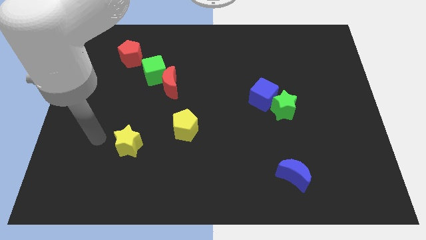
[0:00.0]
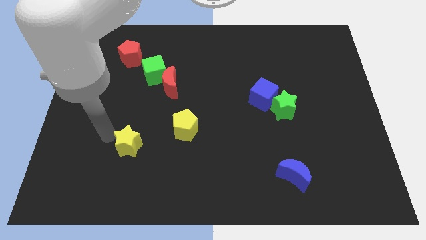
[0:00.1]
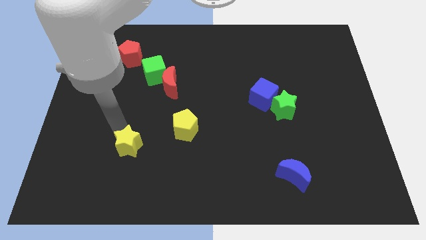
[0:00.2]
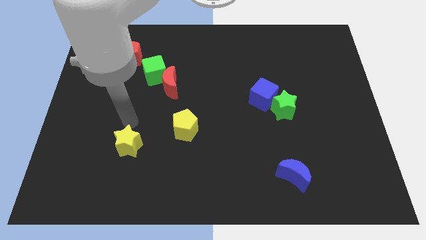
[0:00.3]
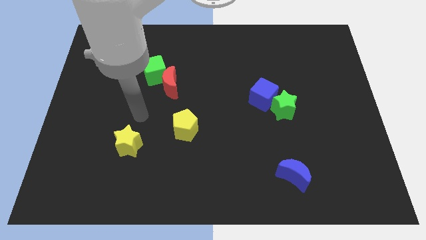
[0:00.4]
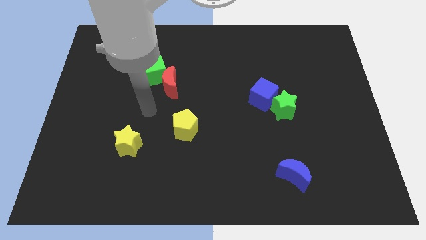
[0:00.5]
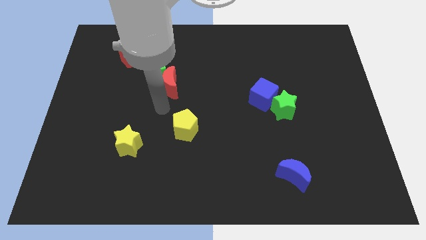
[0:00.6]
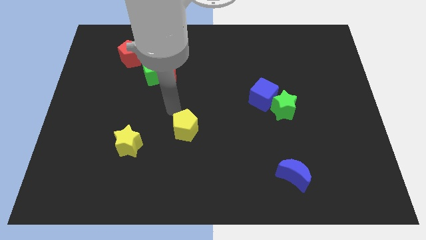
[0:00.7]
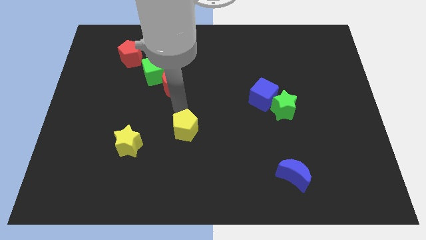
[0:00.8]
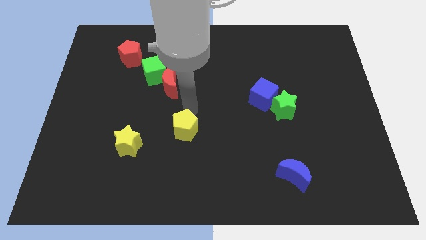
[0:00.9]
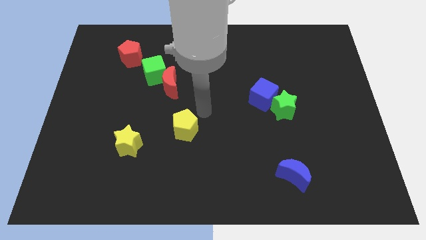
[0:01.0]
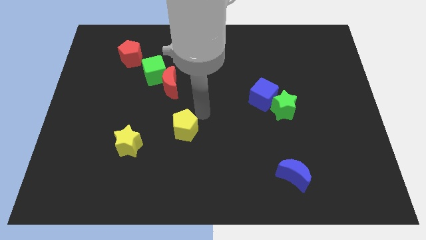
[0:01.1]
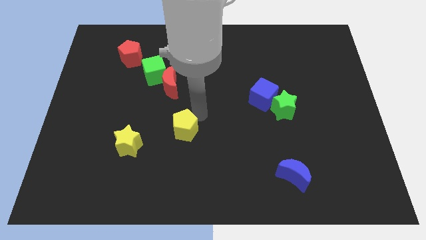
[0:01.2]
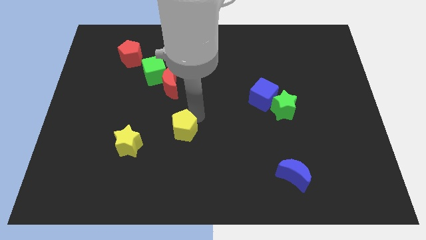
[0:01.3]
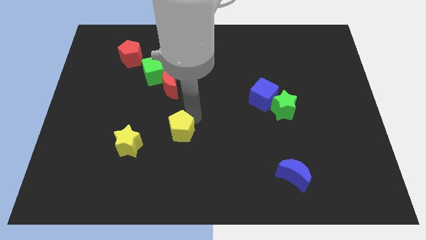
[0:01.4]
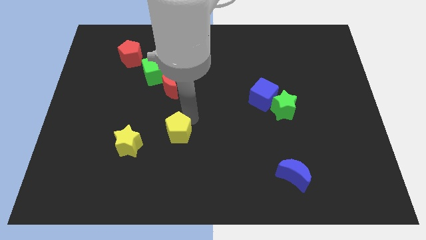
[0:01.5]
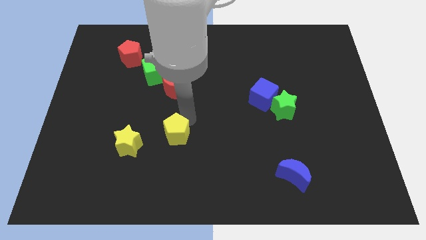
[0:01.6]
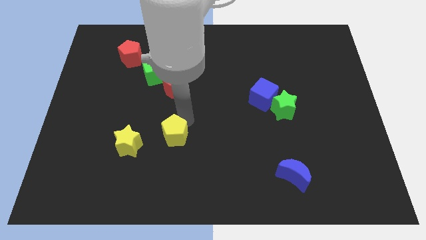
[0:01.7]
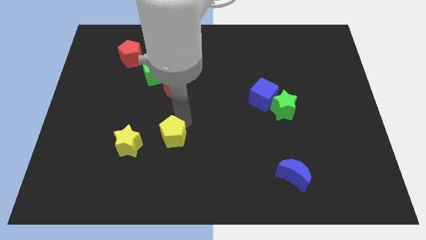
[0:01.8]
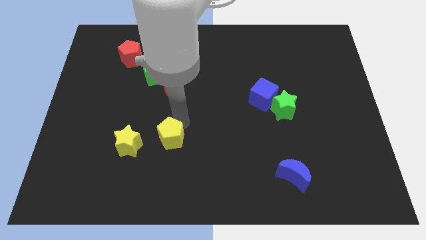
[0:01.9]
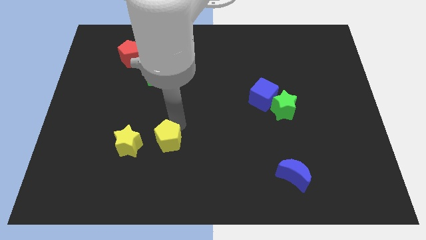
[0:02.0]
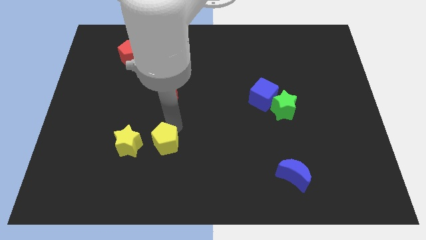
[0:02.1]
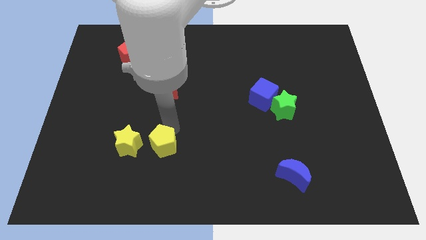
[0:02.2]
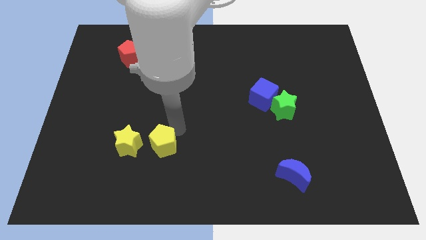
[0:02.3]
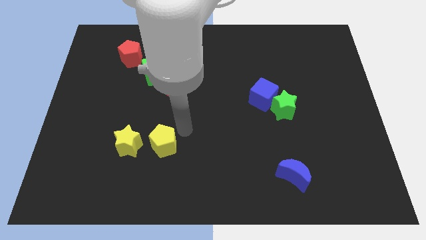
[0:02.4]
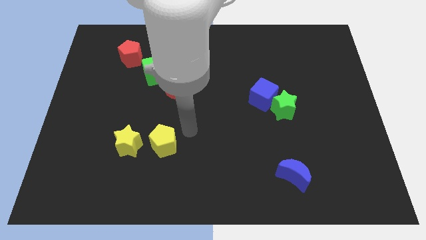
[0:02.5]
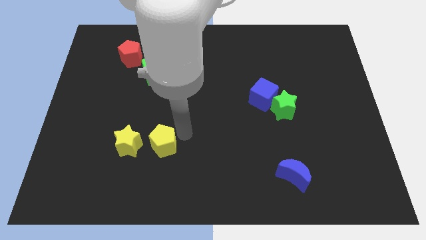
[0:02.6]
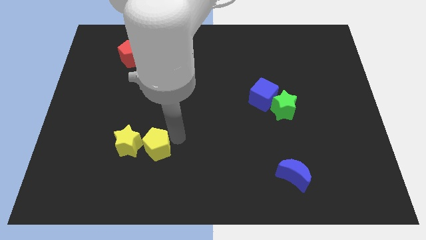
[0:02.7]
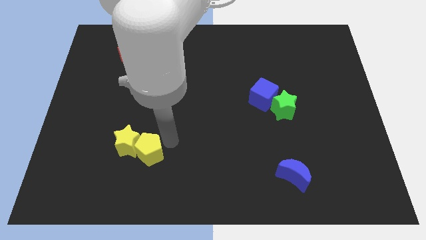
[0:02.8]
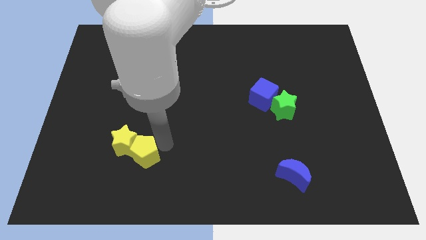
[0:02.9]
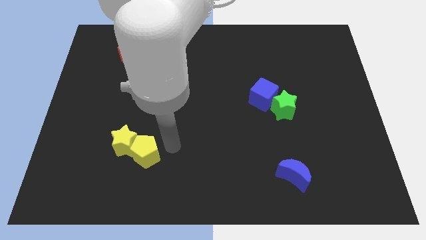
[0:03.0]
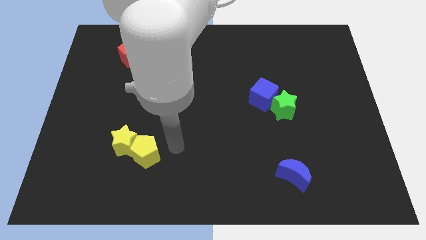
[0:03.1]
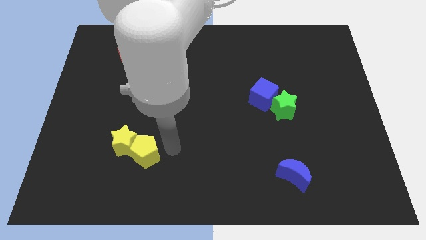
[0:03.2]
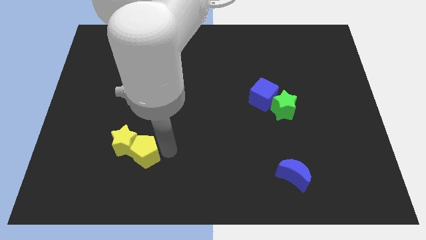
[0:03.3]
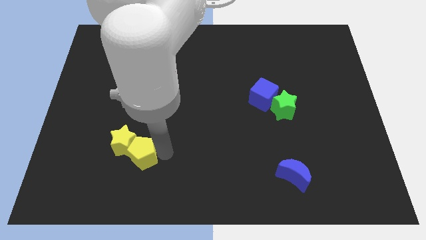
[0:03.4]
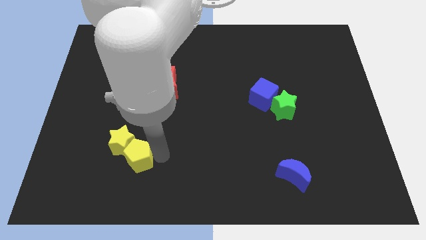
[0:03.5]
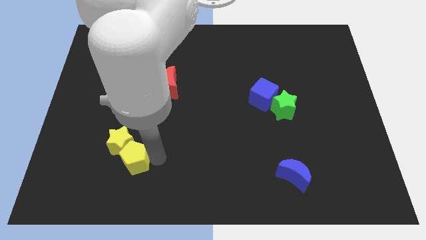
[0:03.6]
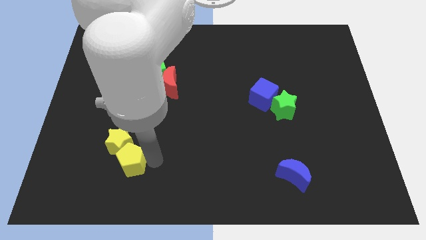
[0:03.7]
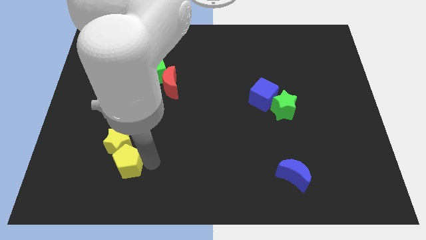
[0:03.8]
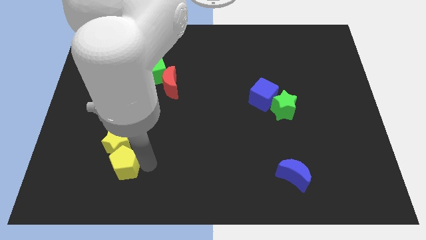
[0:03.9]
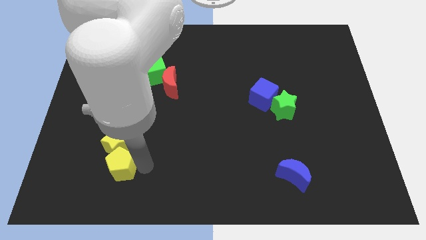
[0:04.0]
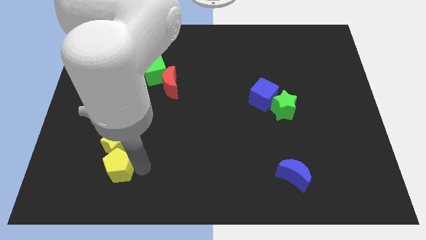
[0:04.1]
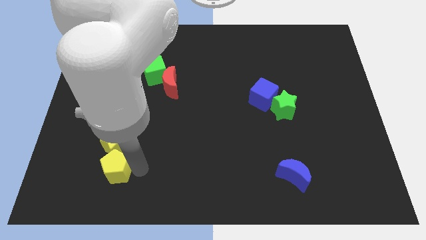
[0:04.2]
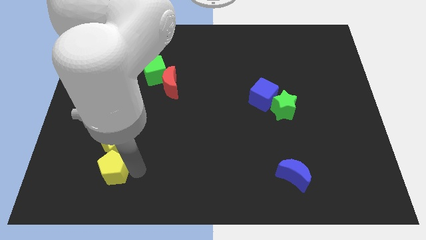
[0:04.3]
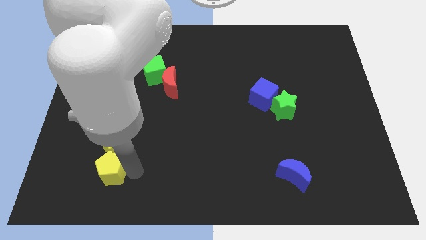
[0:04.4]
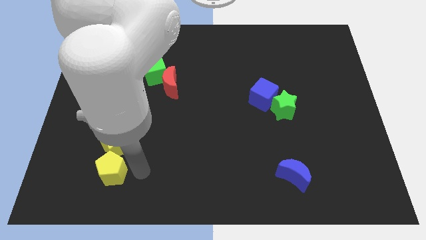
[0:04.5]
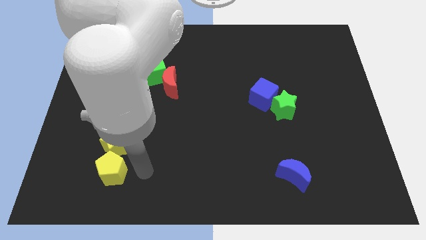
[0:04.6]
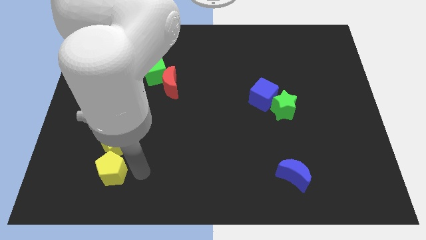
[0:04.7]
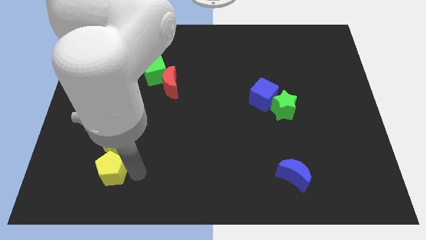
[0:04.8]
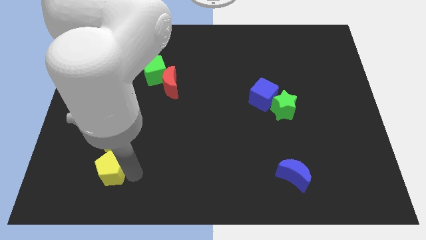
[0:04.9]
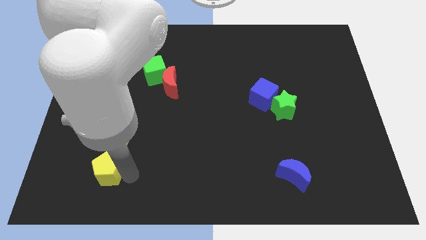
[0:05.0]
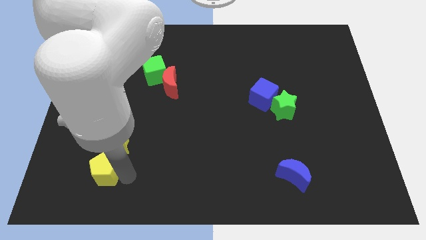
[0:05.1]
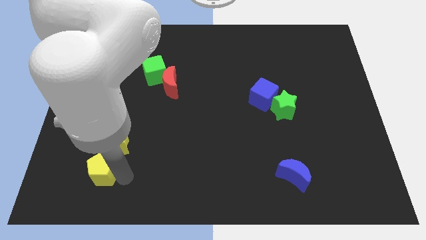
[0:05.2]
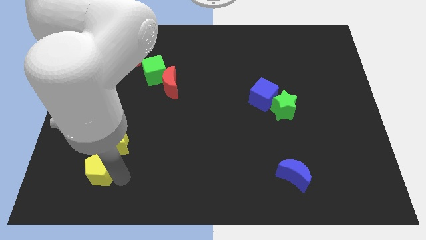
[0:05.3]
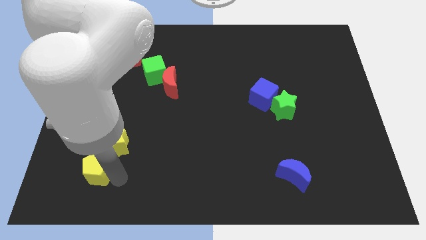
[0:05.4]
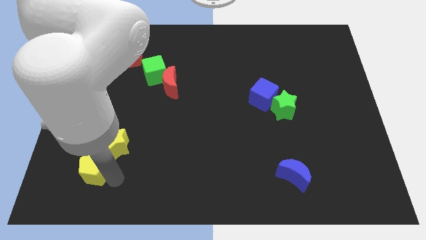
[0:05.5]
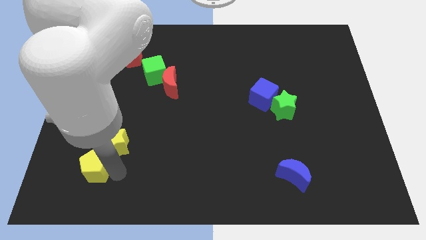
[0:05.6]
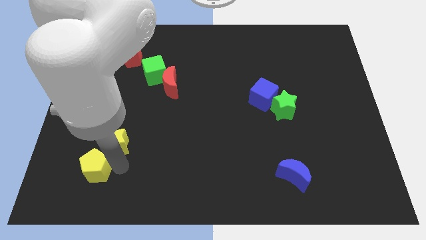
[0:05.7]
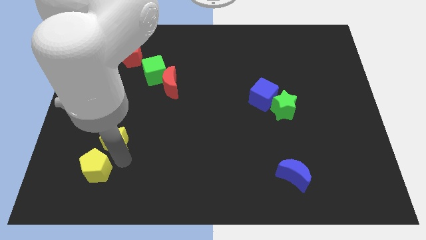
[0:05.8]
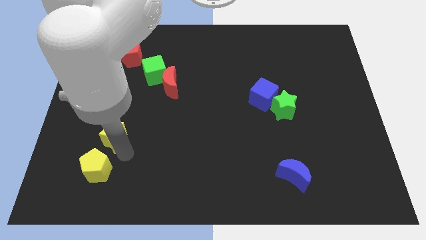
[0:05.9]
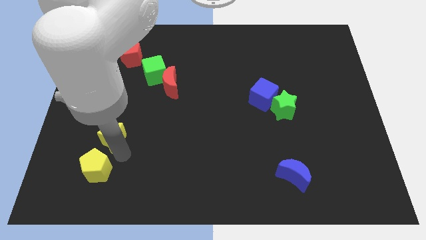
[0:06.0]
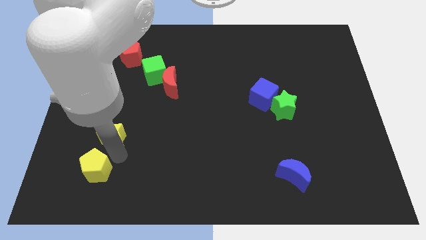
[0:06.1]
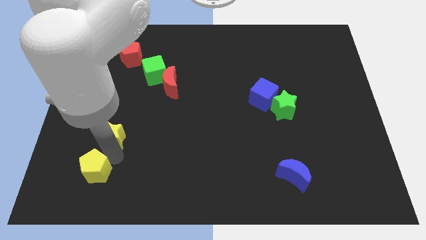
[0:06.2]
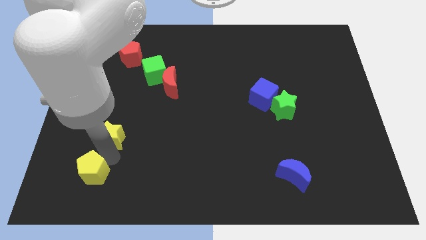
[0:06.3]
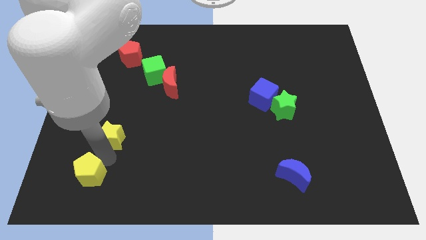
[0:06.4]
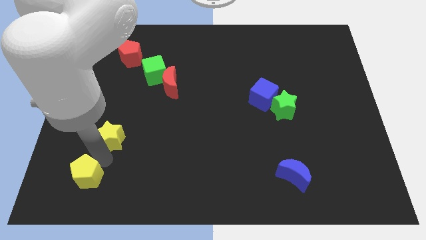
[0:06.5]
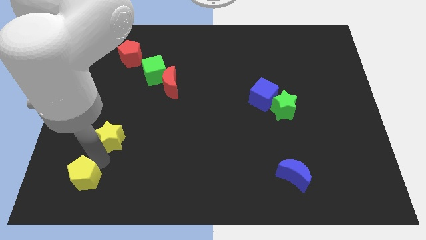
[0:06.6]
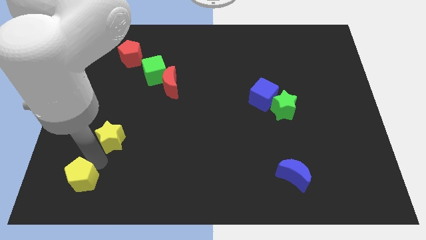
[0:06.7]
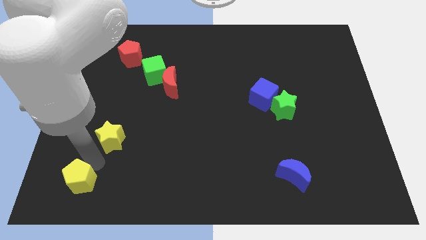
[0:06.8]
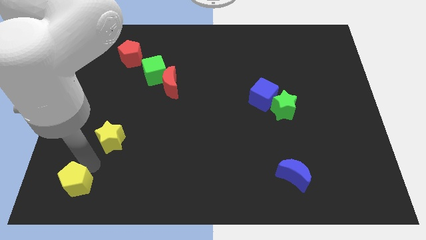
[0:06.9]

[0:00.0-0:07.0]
slide the yellow pentagon to the bottom left
